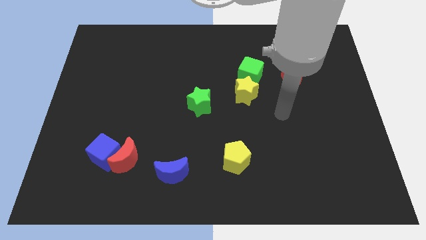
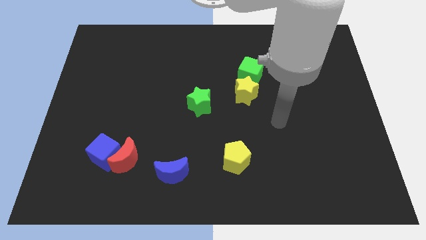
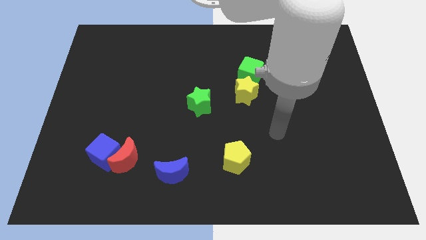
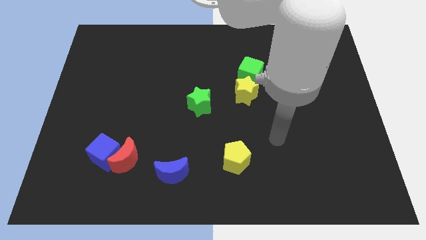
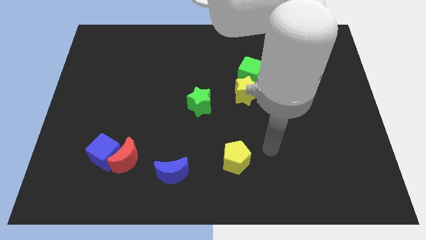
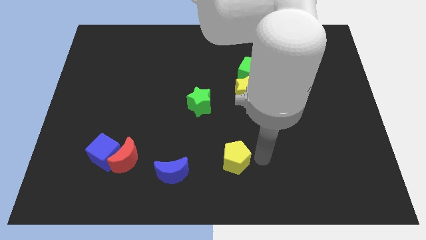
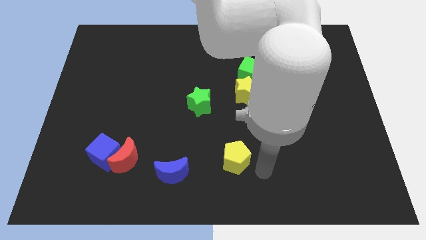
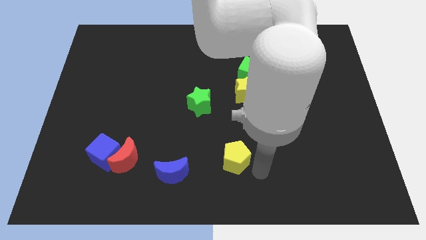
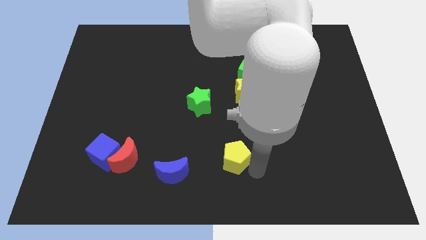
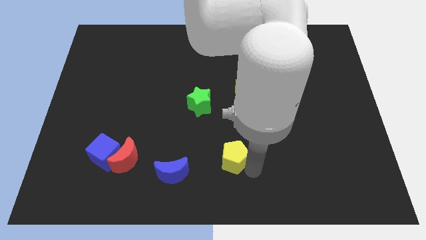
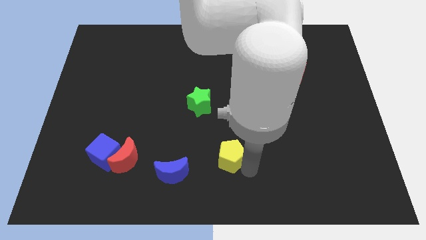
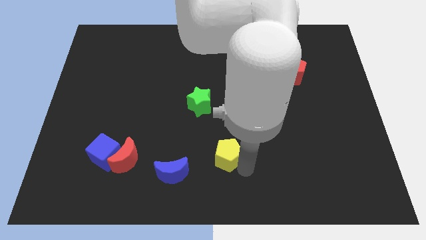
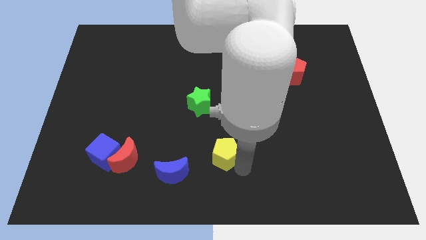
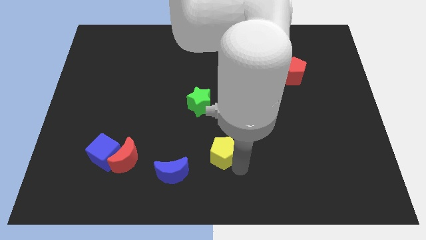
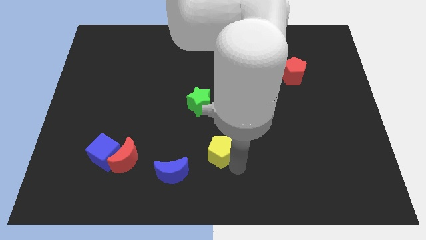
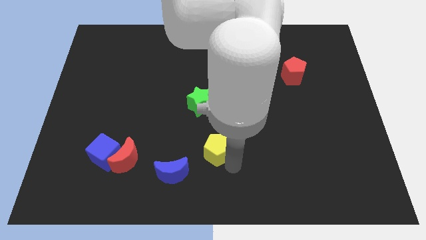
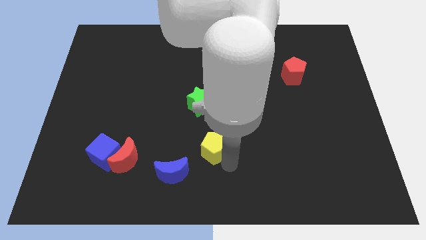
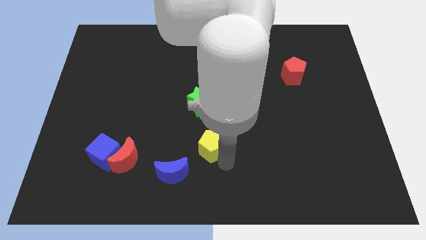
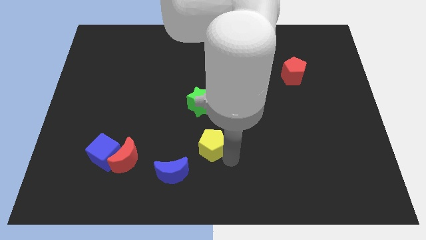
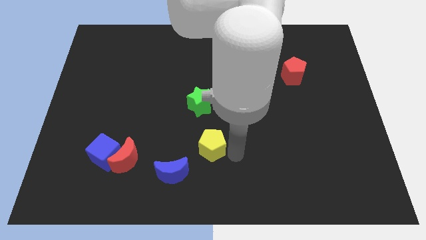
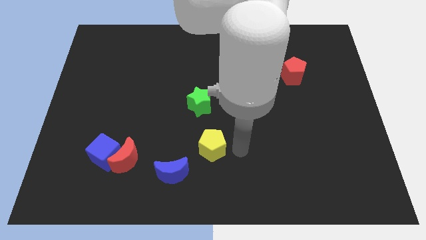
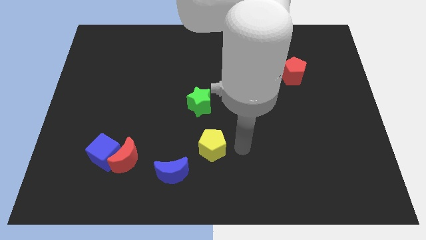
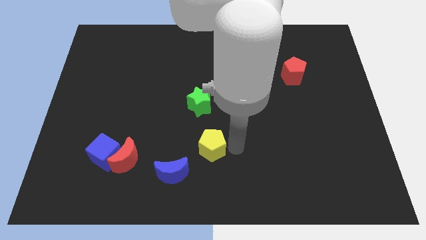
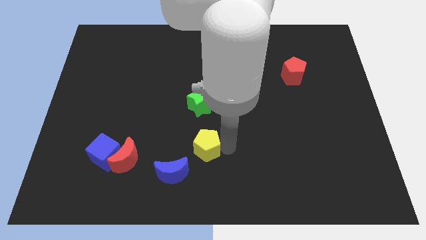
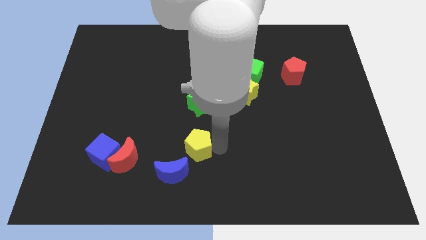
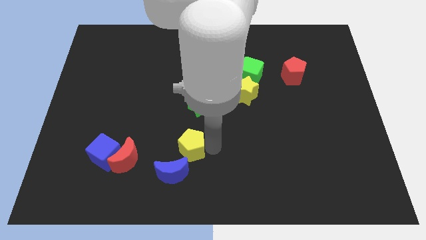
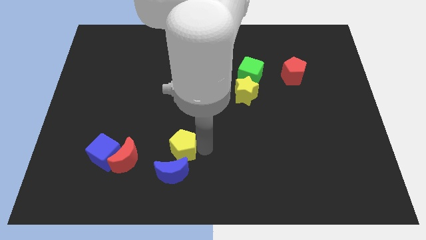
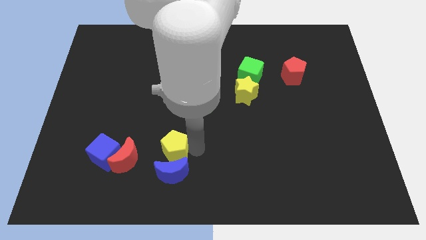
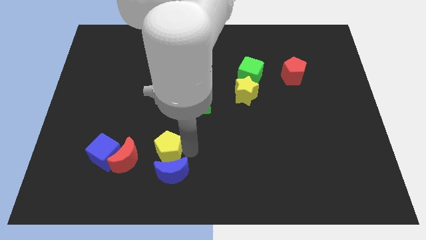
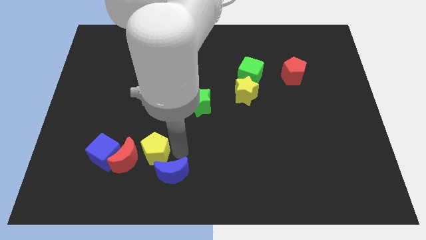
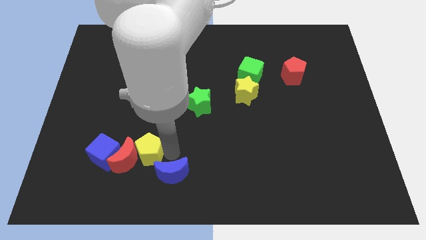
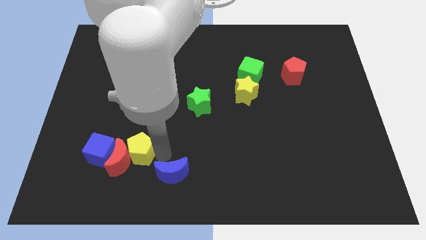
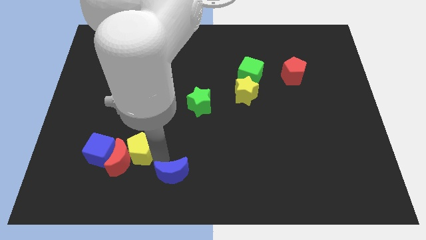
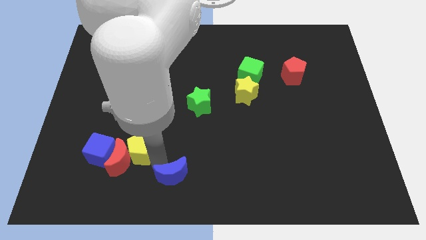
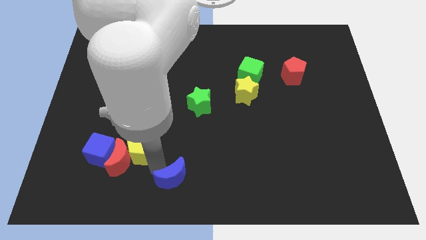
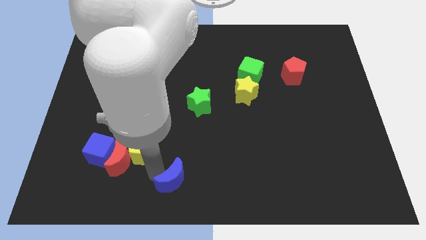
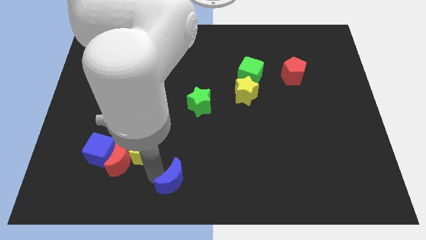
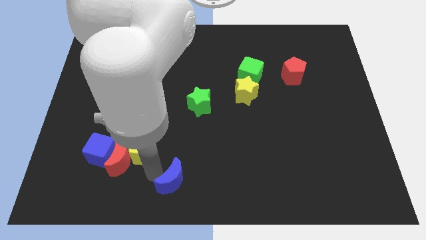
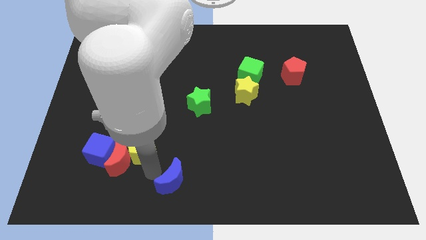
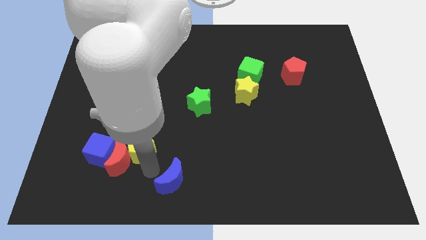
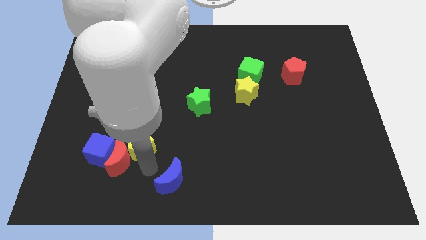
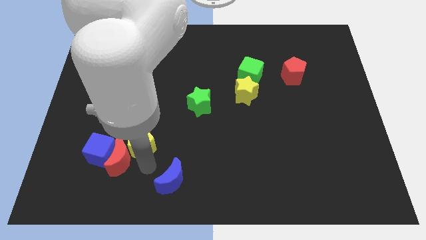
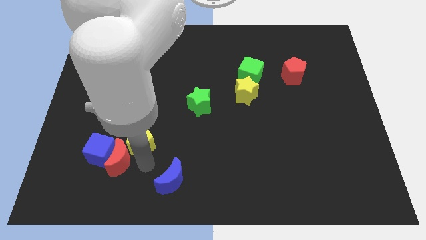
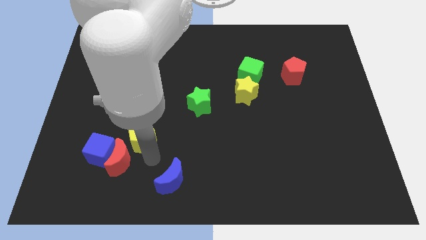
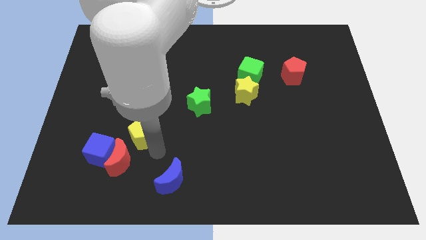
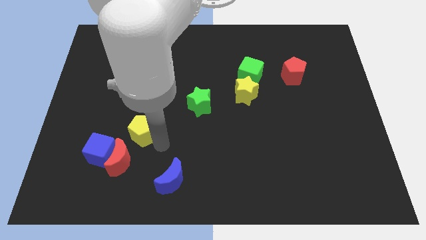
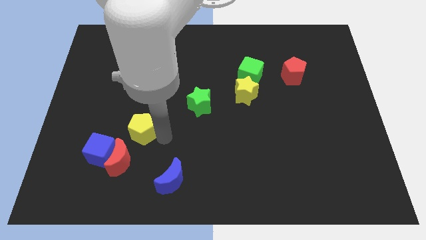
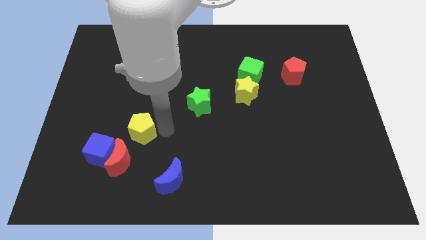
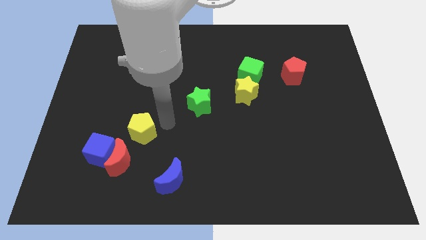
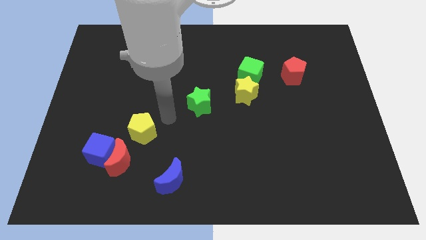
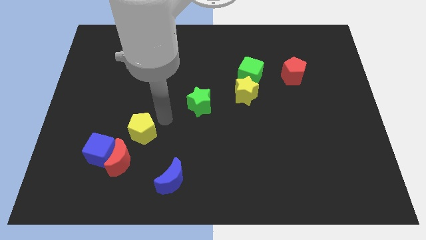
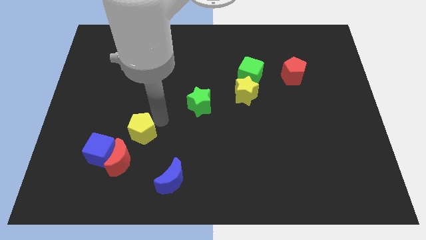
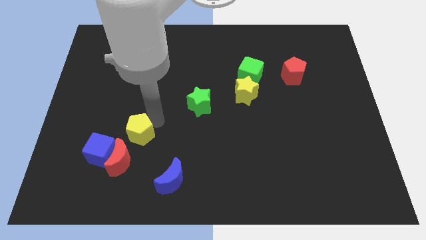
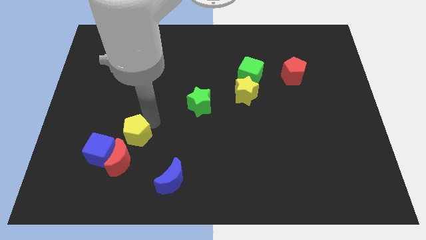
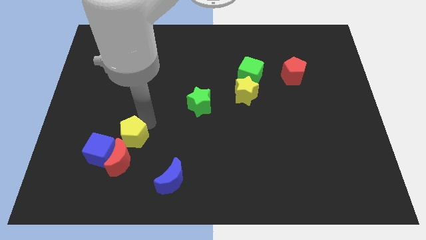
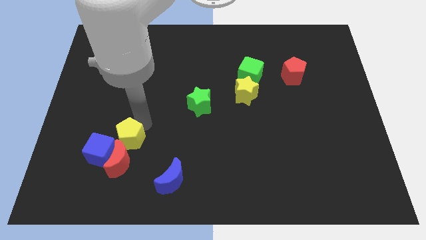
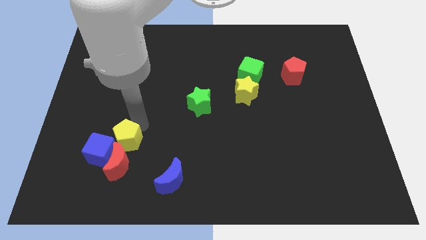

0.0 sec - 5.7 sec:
push the yellow pentagon towards the blue cube

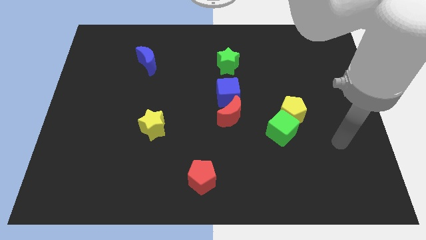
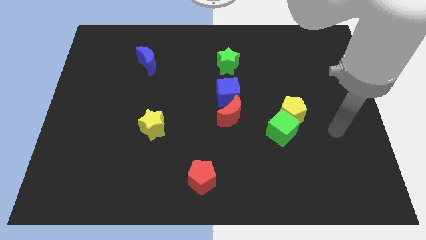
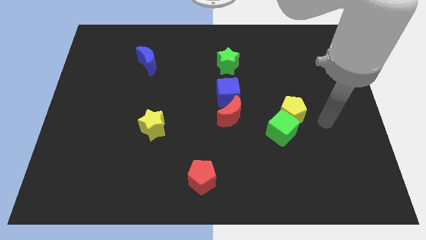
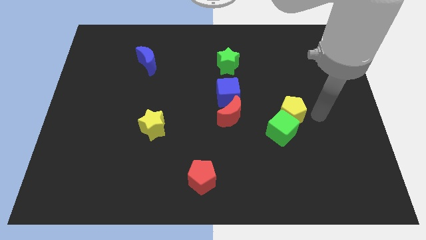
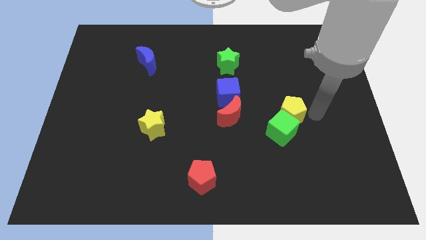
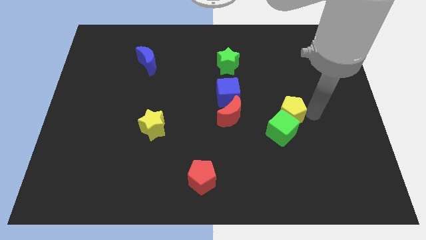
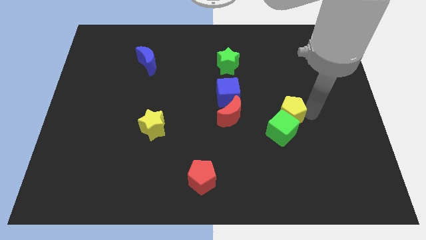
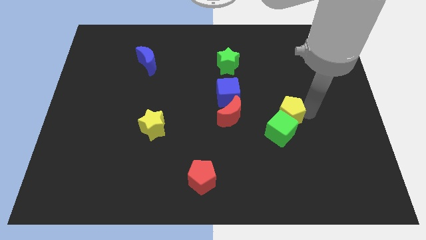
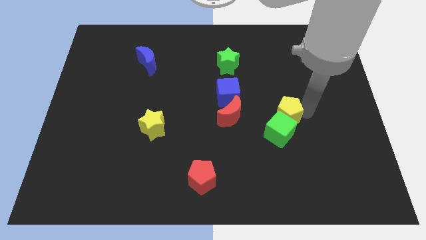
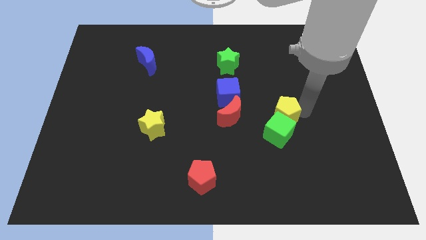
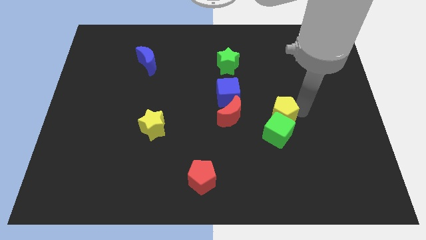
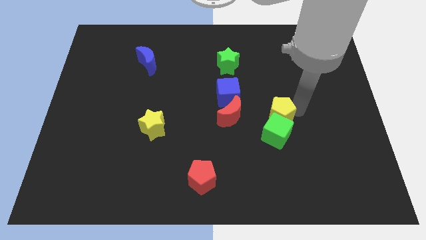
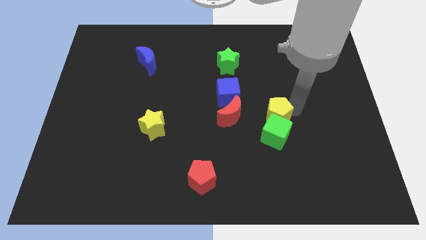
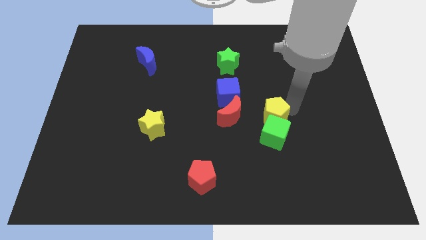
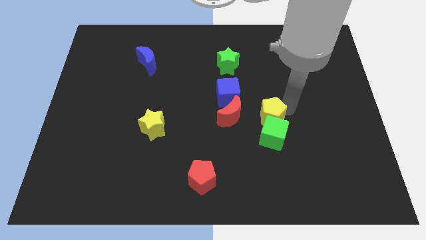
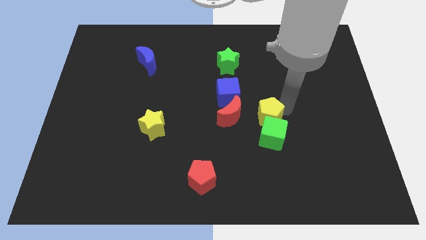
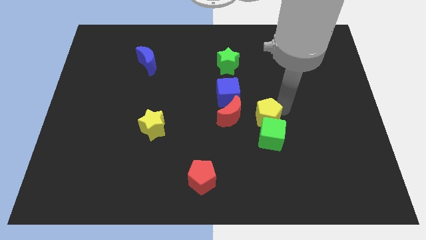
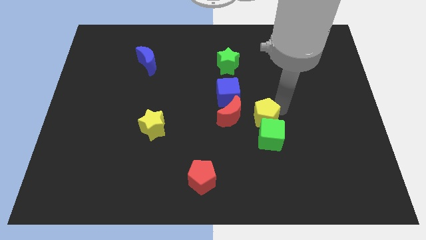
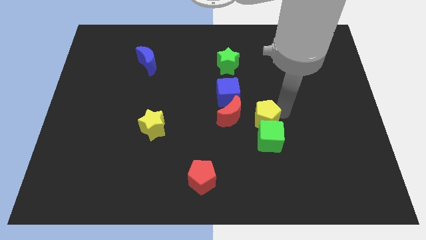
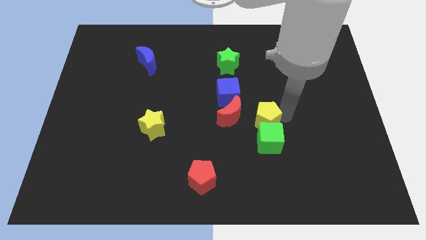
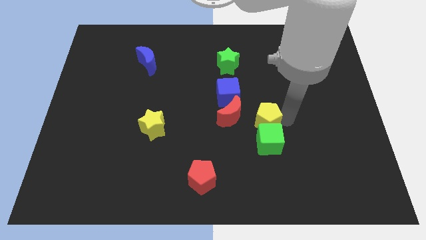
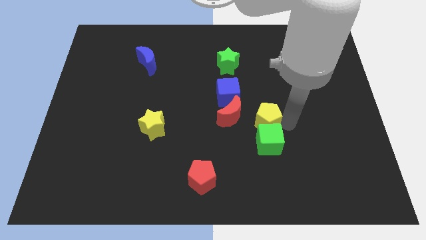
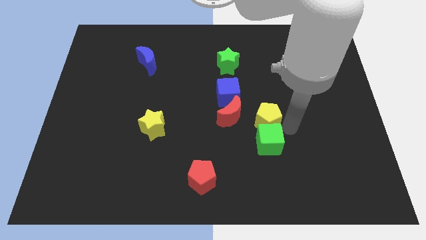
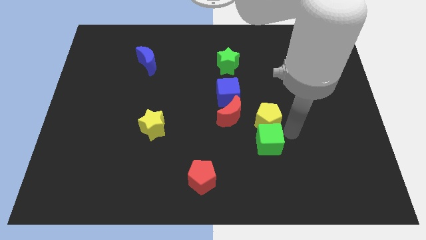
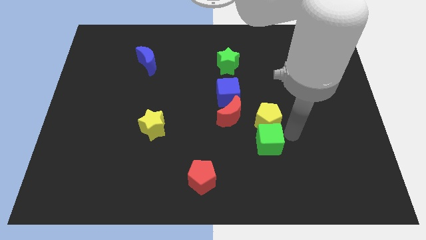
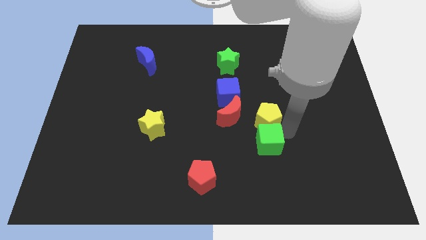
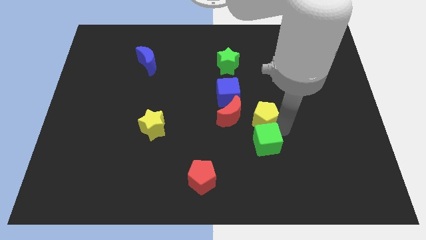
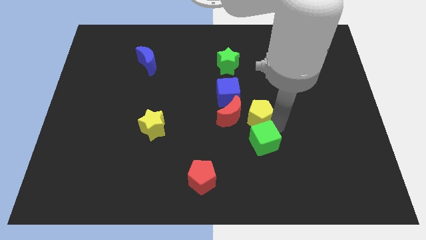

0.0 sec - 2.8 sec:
move the yellow pentagon close to the red moon
